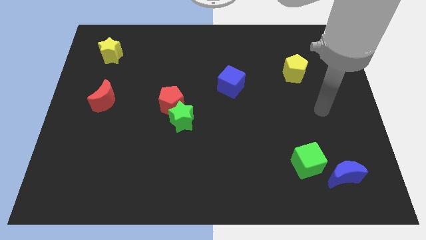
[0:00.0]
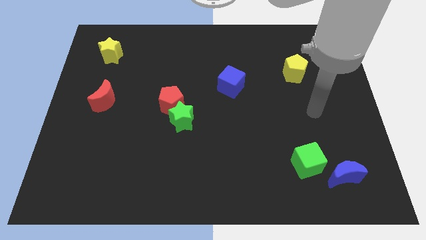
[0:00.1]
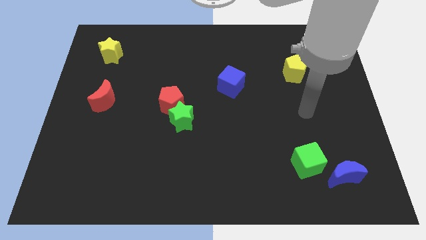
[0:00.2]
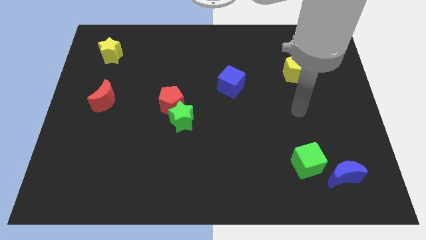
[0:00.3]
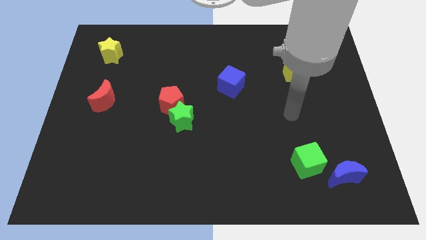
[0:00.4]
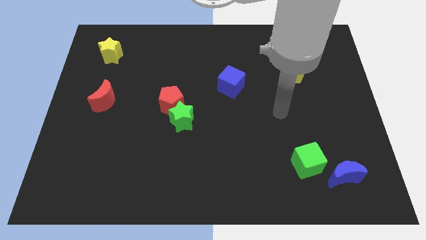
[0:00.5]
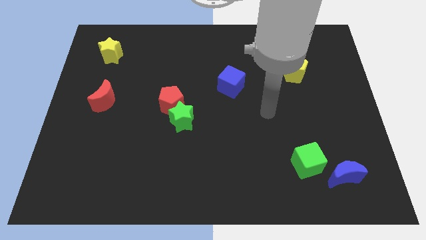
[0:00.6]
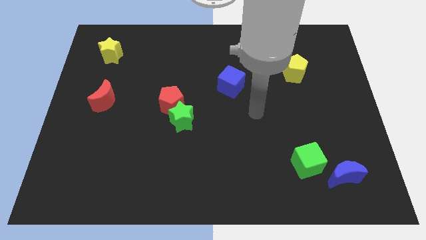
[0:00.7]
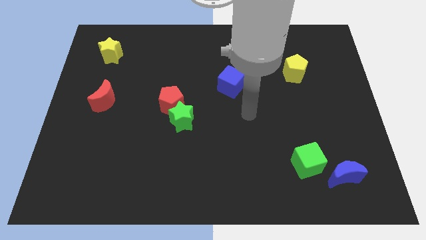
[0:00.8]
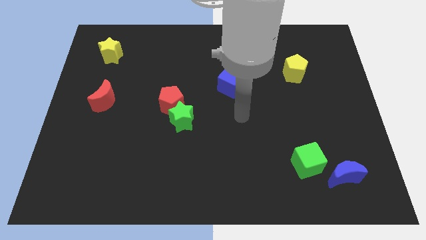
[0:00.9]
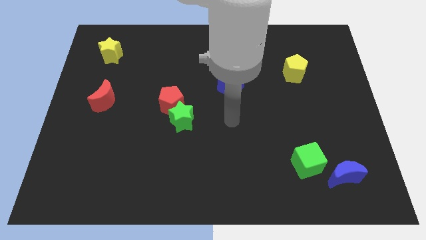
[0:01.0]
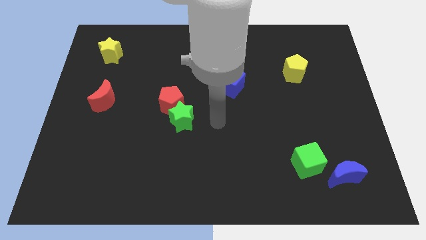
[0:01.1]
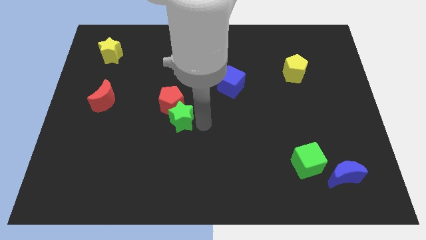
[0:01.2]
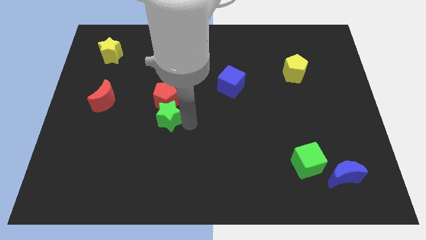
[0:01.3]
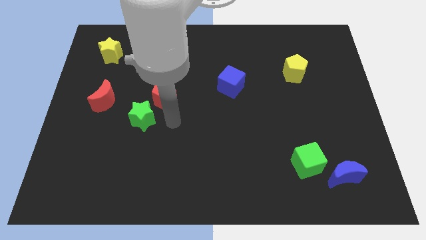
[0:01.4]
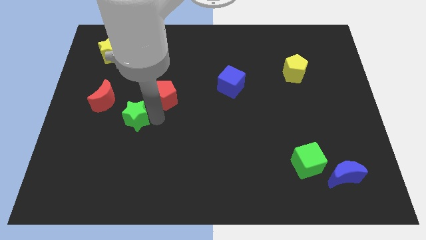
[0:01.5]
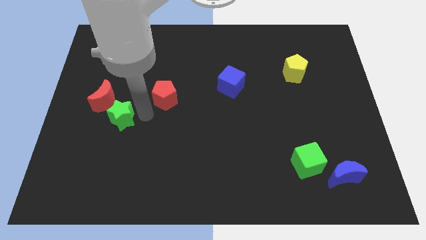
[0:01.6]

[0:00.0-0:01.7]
separate the red pentagon from the green star

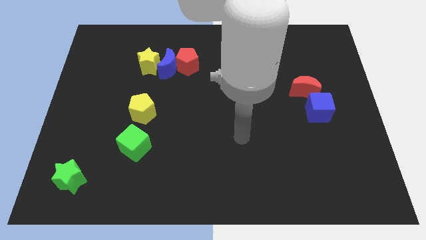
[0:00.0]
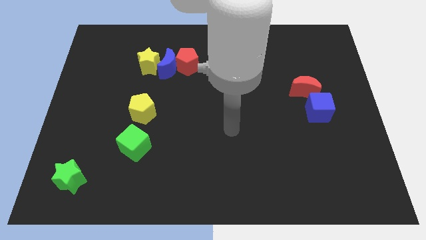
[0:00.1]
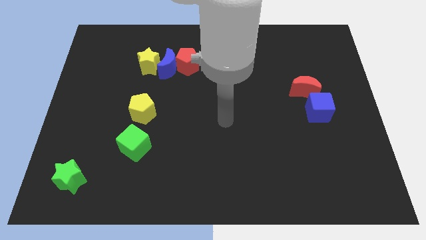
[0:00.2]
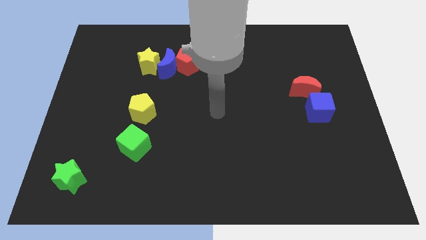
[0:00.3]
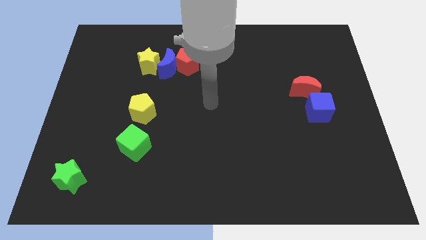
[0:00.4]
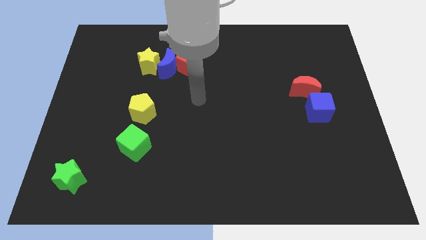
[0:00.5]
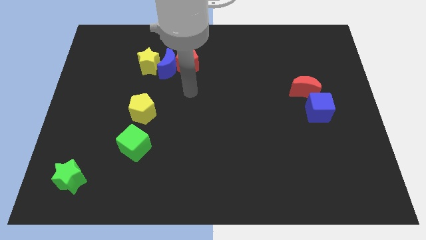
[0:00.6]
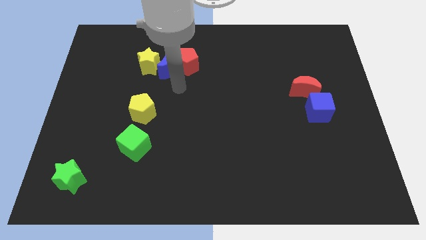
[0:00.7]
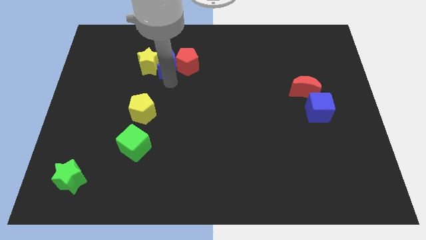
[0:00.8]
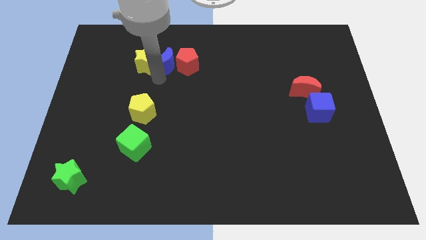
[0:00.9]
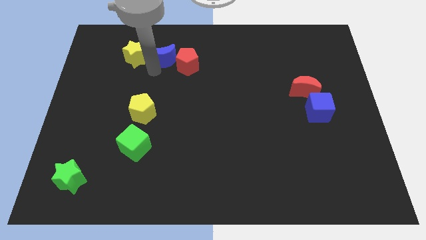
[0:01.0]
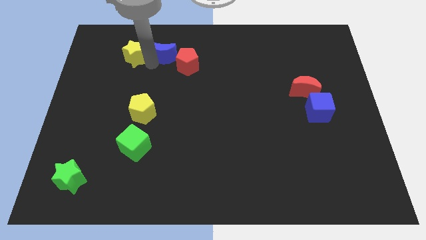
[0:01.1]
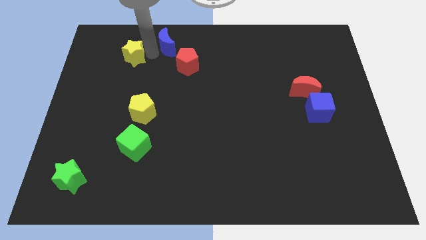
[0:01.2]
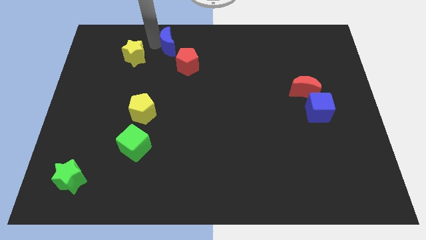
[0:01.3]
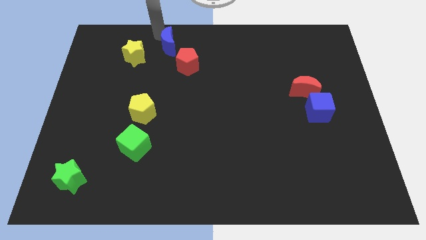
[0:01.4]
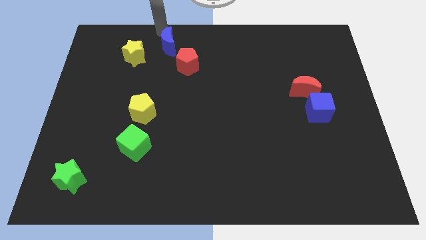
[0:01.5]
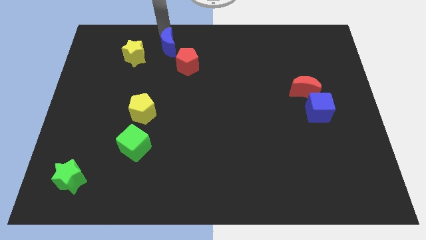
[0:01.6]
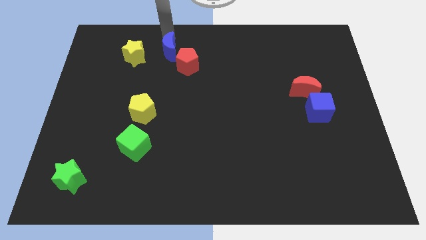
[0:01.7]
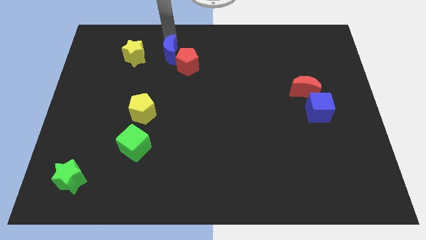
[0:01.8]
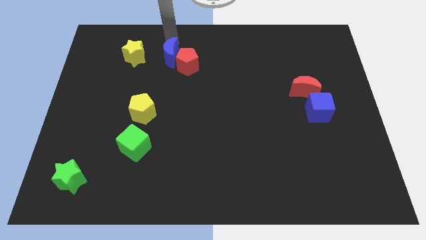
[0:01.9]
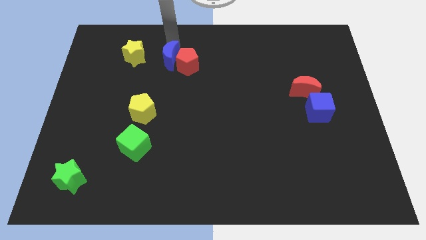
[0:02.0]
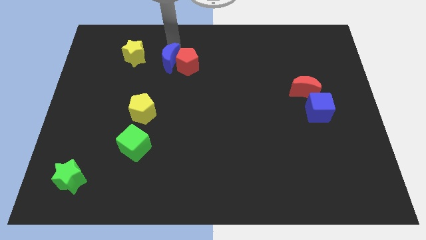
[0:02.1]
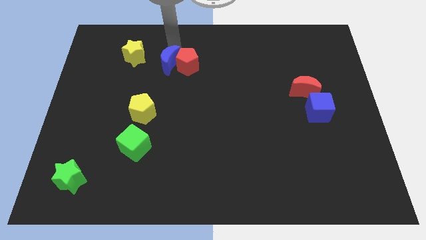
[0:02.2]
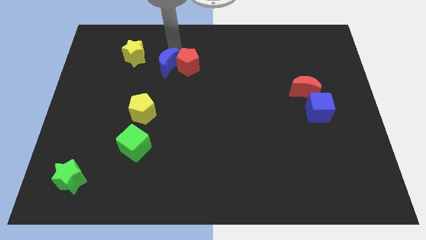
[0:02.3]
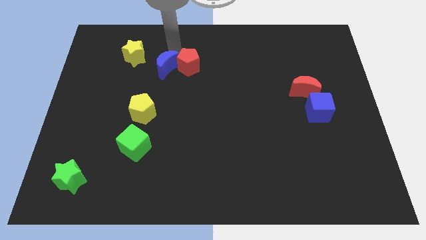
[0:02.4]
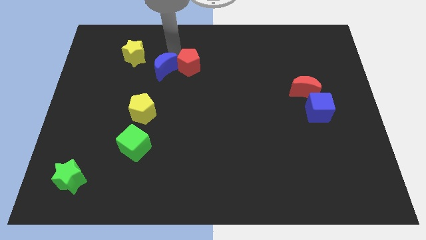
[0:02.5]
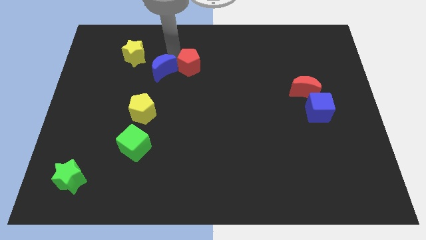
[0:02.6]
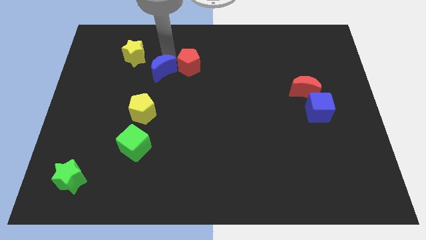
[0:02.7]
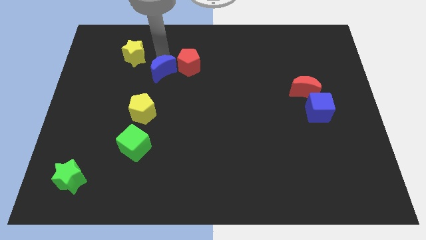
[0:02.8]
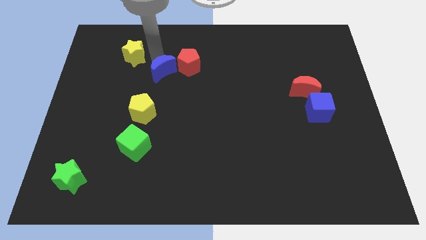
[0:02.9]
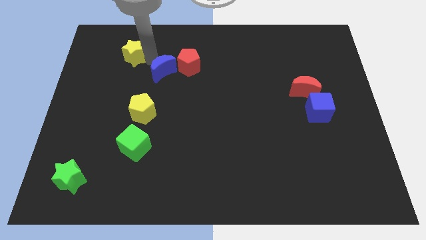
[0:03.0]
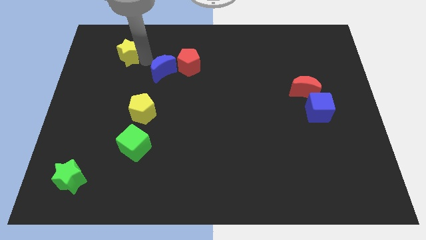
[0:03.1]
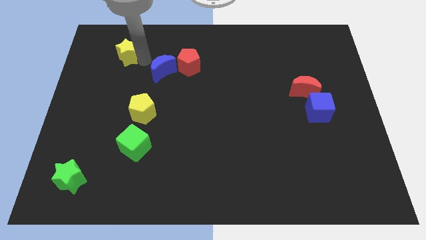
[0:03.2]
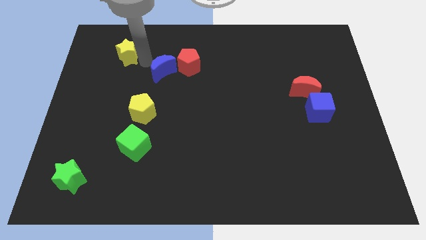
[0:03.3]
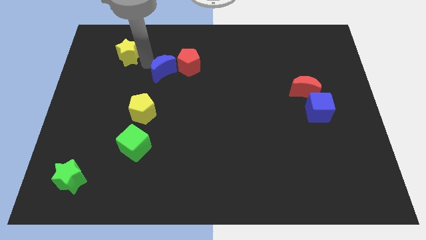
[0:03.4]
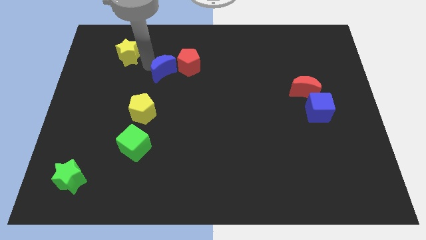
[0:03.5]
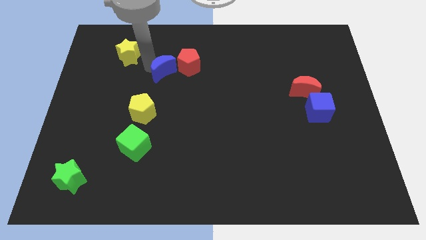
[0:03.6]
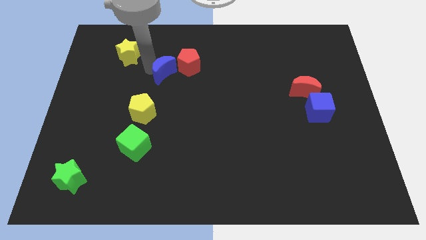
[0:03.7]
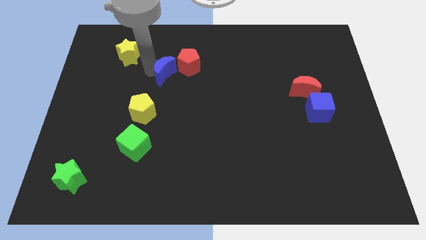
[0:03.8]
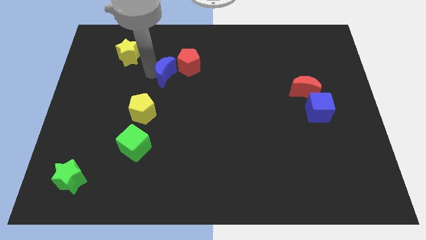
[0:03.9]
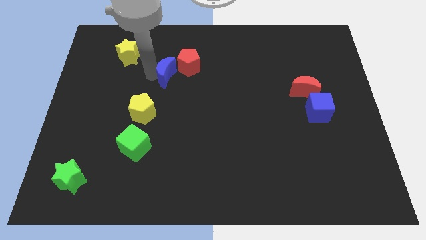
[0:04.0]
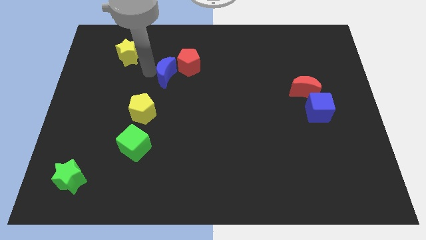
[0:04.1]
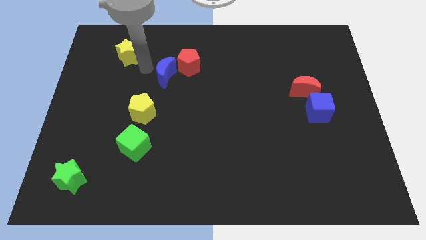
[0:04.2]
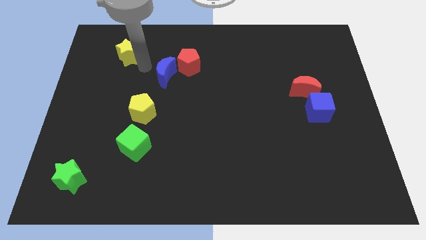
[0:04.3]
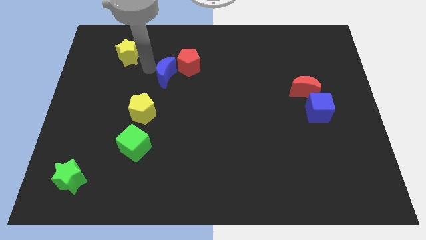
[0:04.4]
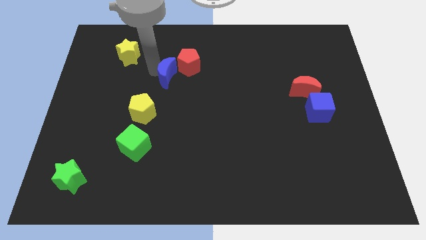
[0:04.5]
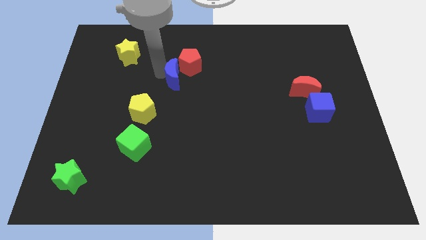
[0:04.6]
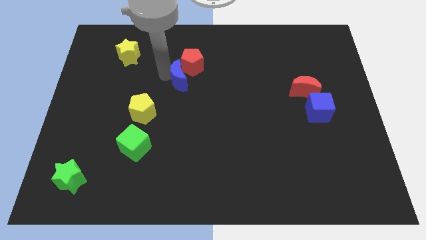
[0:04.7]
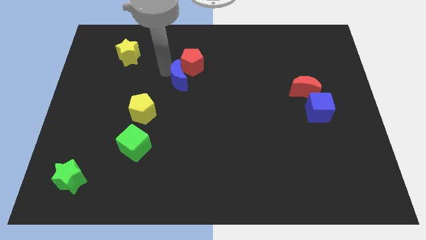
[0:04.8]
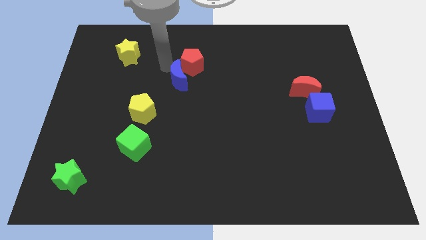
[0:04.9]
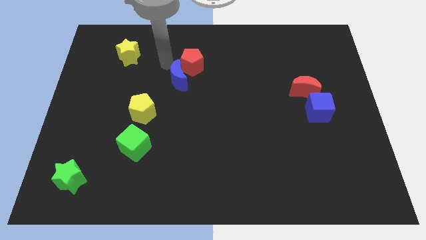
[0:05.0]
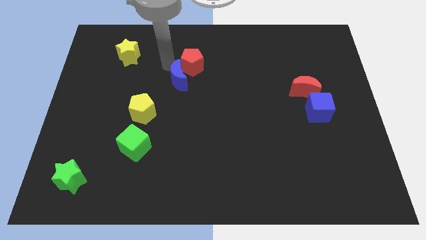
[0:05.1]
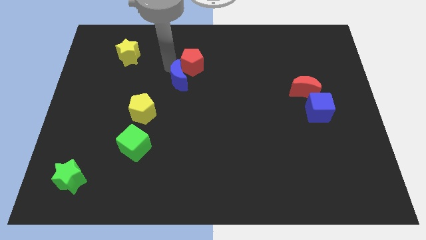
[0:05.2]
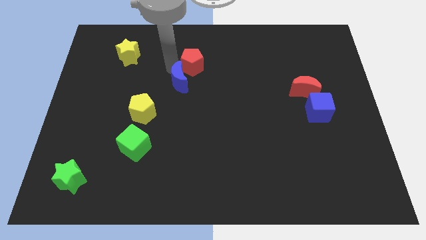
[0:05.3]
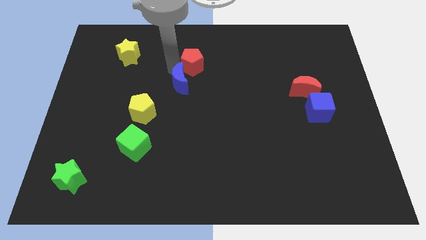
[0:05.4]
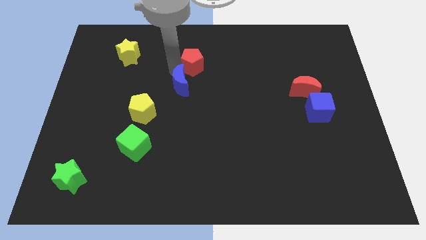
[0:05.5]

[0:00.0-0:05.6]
move the blue moon away from the red pentagon and yellow star

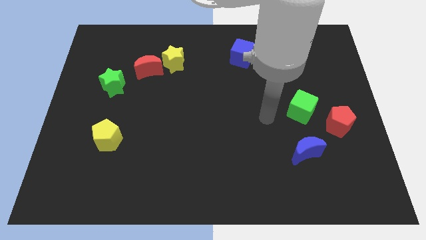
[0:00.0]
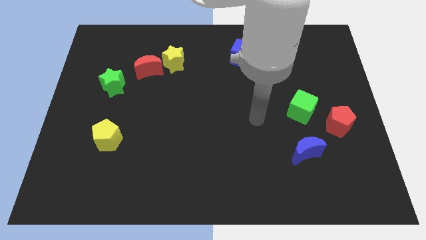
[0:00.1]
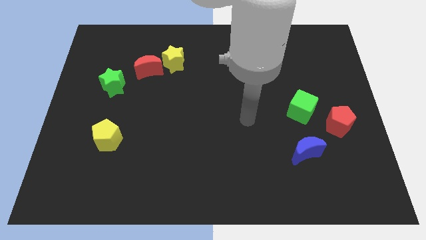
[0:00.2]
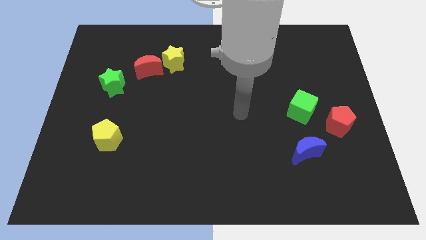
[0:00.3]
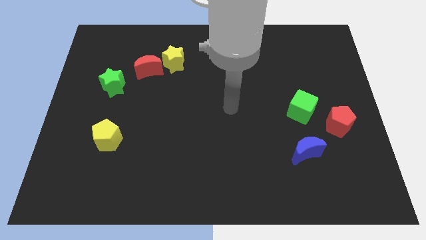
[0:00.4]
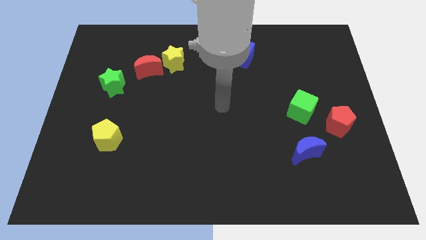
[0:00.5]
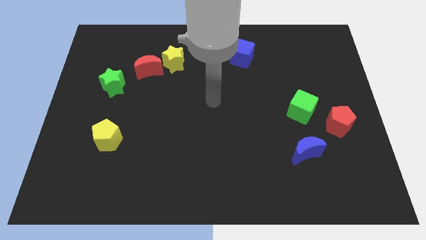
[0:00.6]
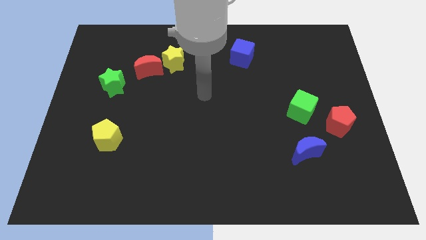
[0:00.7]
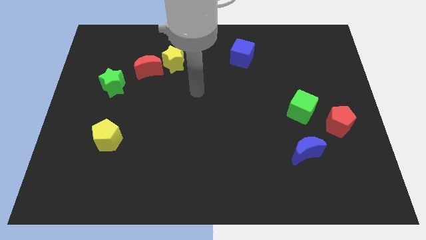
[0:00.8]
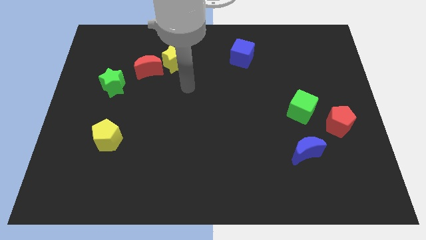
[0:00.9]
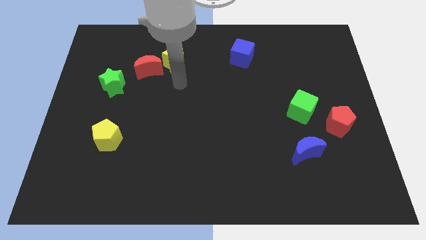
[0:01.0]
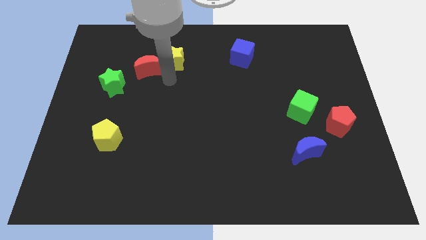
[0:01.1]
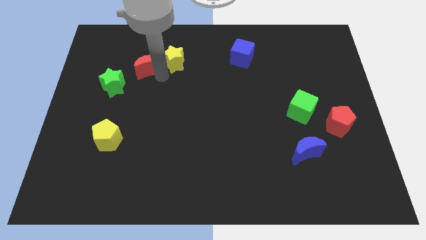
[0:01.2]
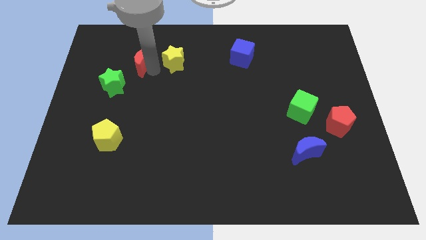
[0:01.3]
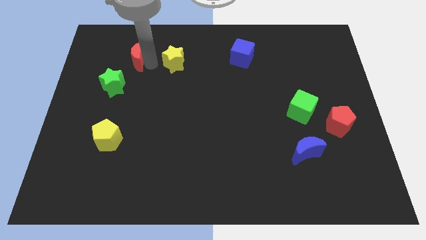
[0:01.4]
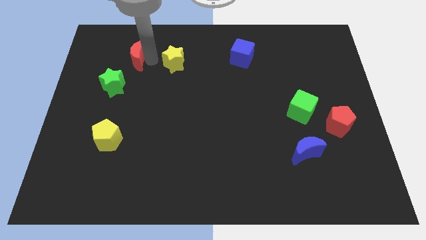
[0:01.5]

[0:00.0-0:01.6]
separate the yellow star from the red moon

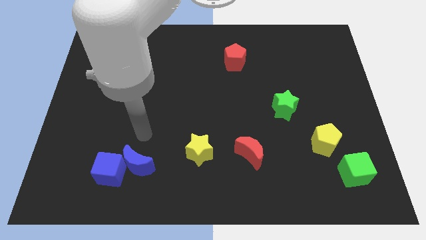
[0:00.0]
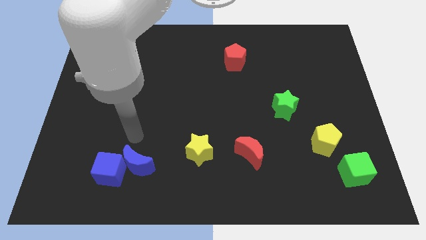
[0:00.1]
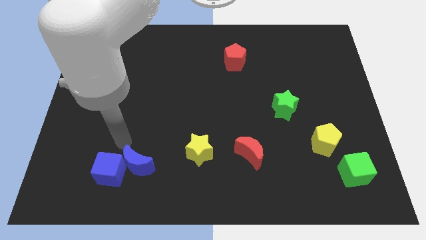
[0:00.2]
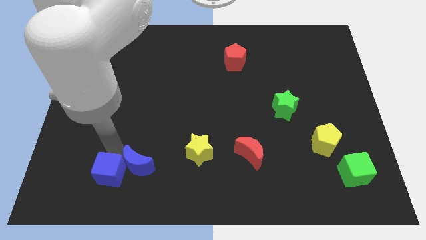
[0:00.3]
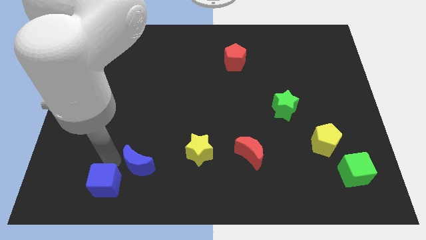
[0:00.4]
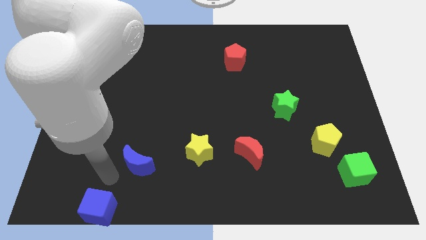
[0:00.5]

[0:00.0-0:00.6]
move the blue moon away from the blue cube
